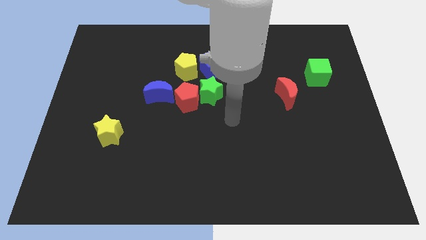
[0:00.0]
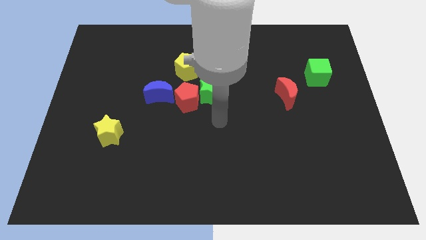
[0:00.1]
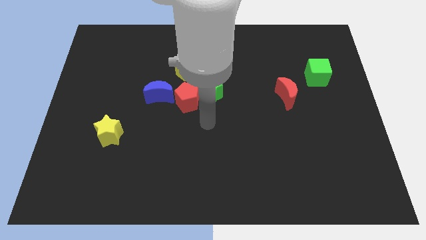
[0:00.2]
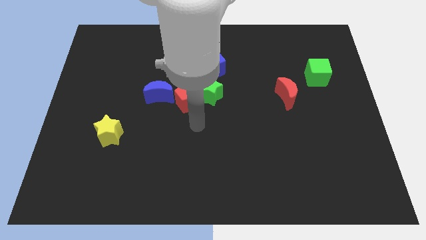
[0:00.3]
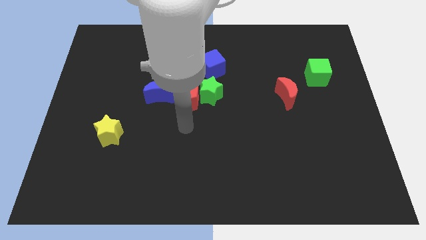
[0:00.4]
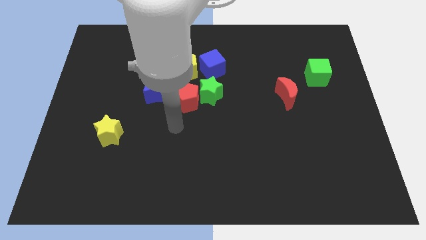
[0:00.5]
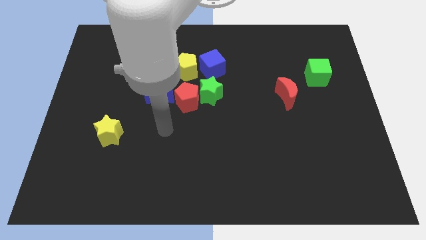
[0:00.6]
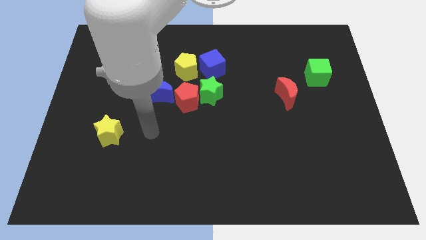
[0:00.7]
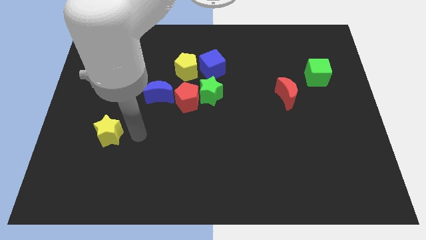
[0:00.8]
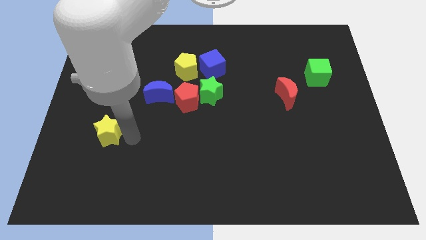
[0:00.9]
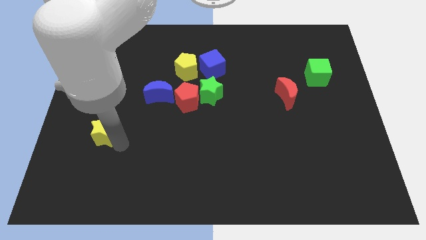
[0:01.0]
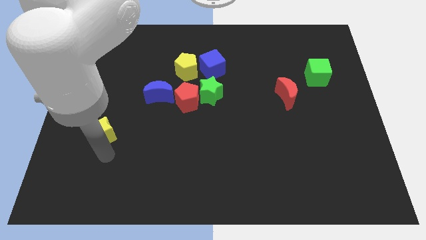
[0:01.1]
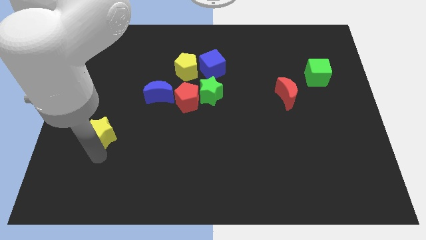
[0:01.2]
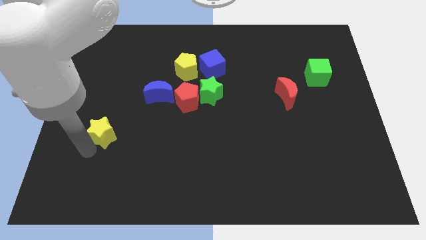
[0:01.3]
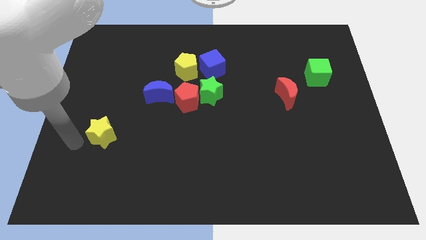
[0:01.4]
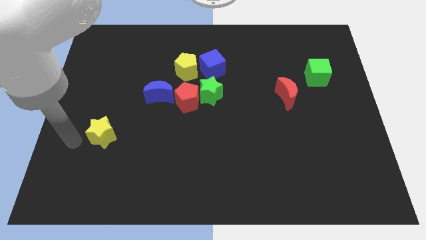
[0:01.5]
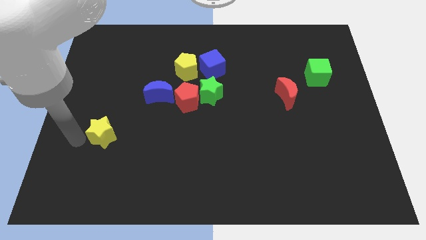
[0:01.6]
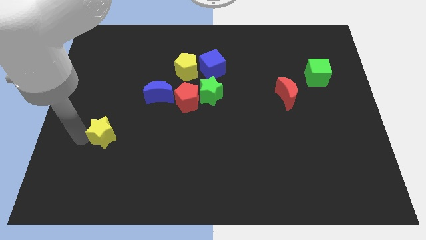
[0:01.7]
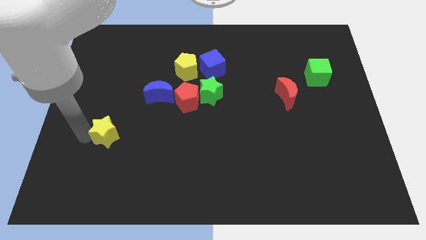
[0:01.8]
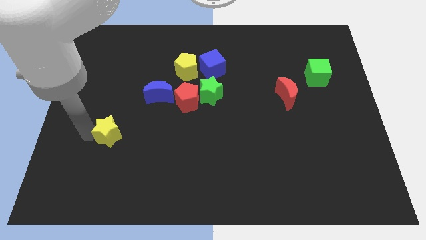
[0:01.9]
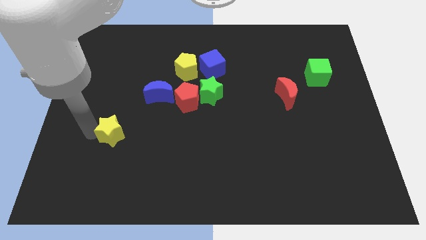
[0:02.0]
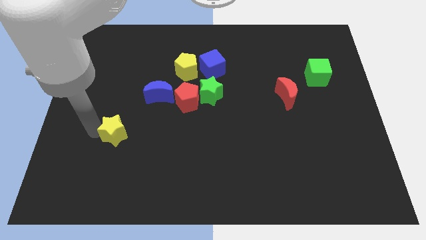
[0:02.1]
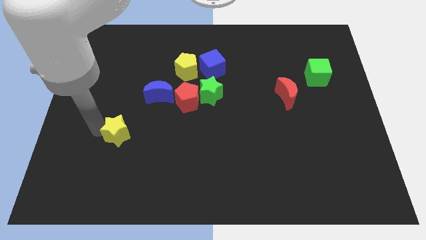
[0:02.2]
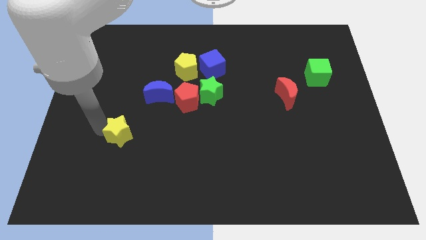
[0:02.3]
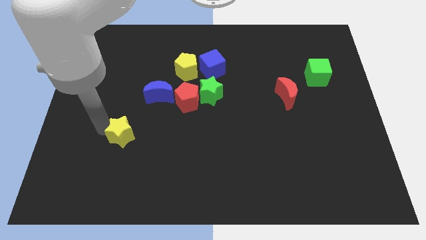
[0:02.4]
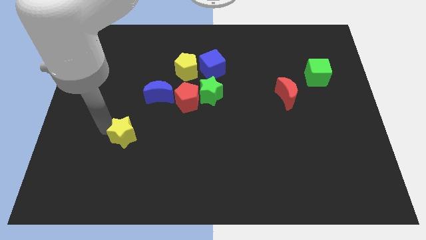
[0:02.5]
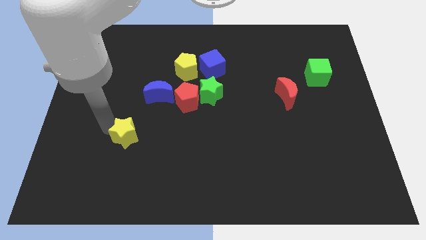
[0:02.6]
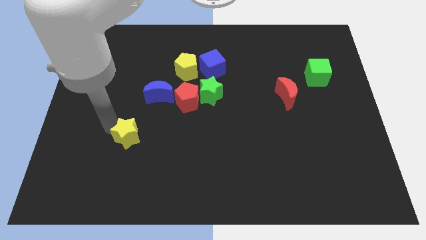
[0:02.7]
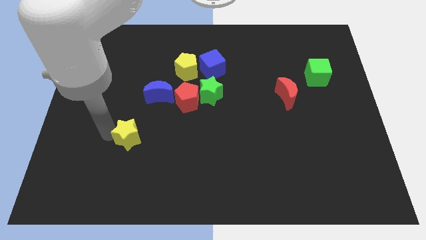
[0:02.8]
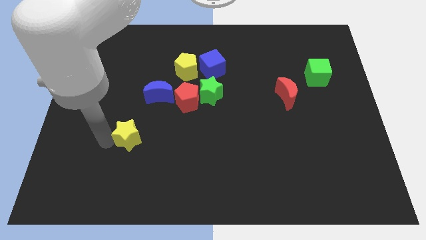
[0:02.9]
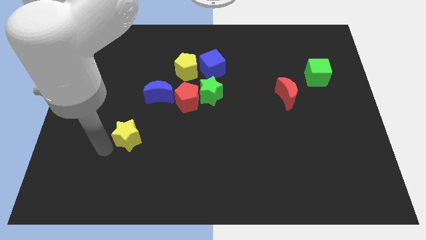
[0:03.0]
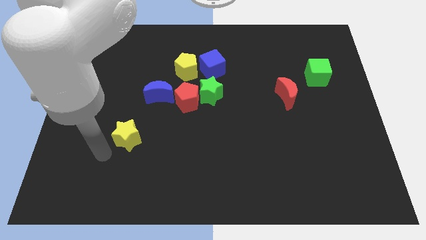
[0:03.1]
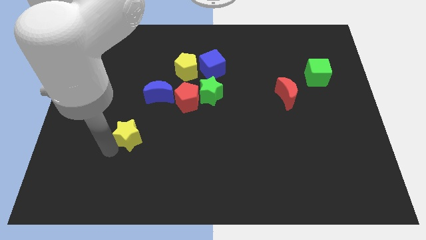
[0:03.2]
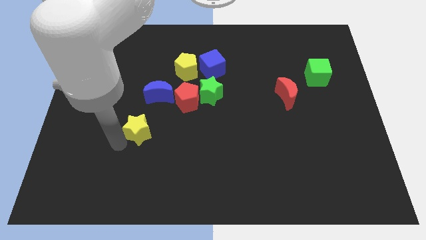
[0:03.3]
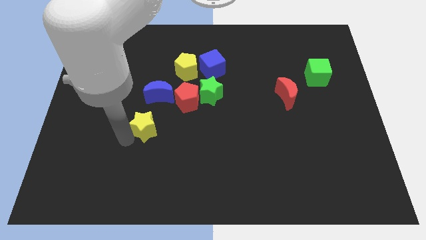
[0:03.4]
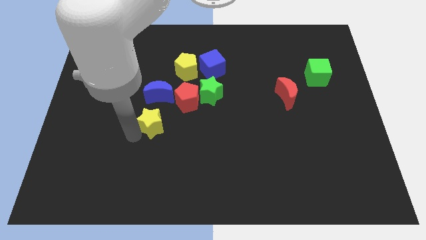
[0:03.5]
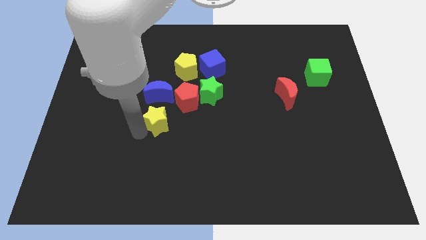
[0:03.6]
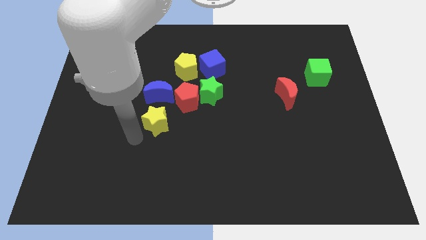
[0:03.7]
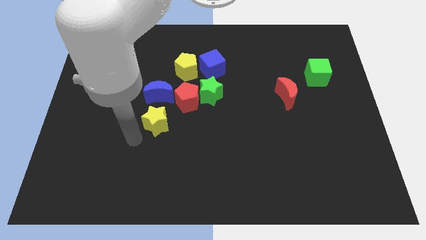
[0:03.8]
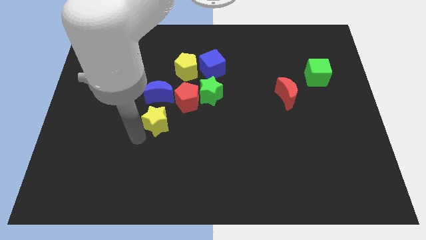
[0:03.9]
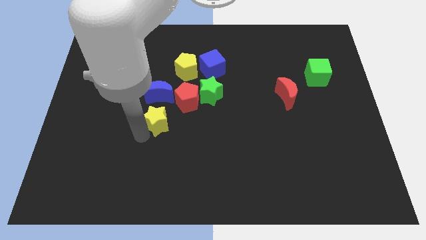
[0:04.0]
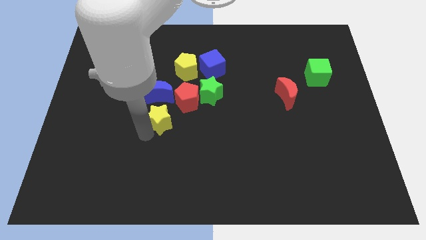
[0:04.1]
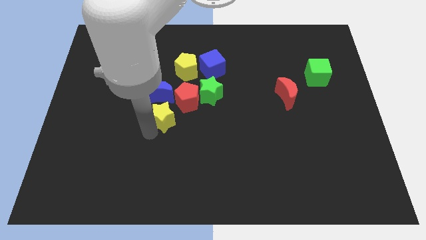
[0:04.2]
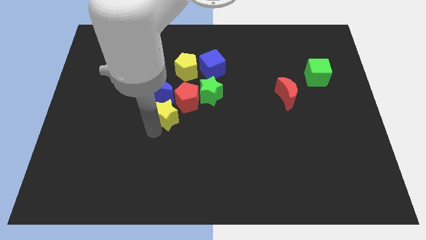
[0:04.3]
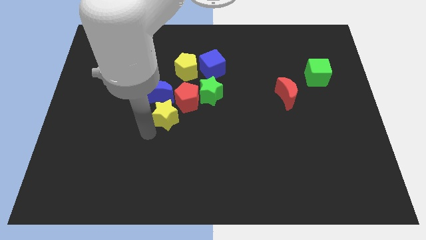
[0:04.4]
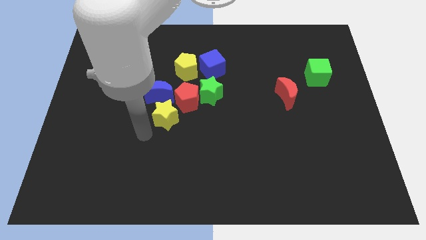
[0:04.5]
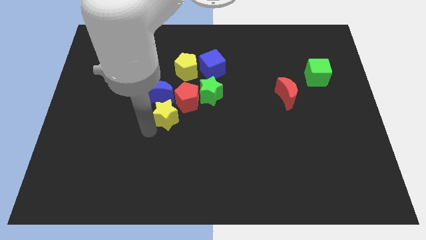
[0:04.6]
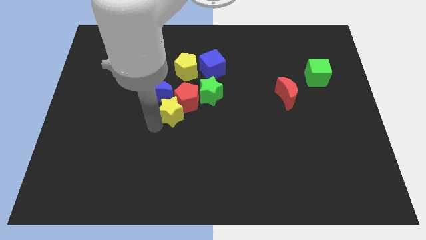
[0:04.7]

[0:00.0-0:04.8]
push the yellow star towards the red pentagon

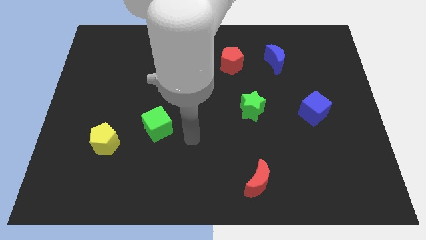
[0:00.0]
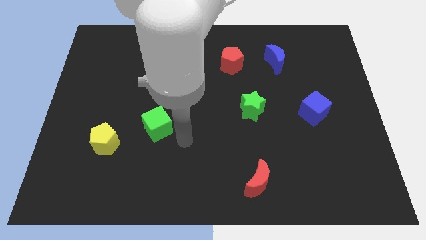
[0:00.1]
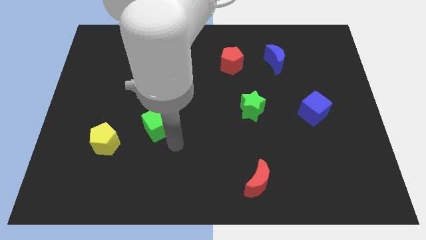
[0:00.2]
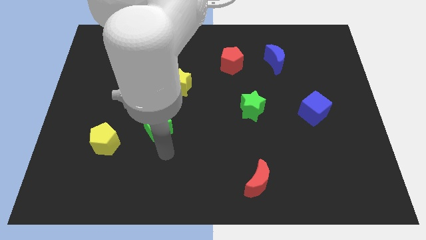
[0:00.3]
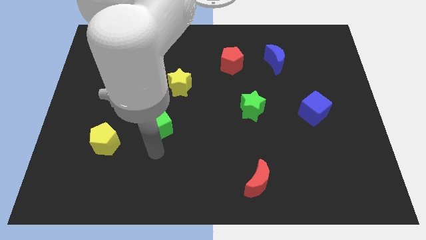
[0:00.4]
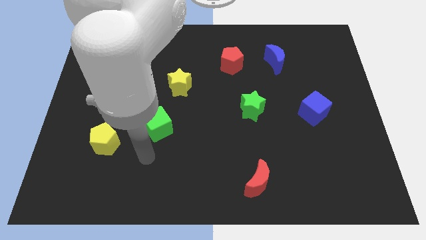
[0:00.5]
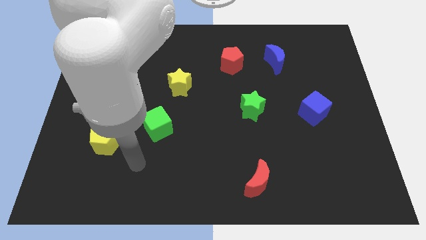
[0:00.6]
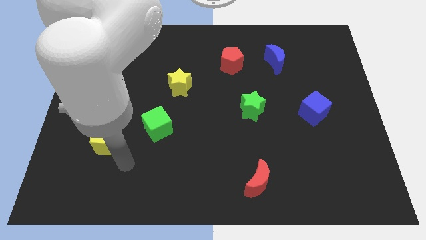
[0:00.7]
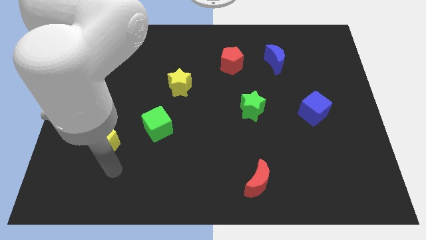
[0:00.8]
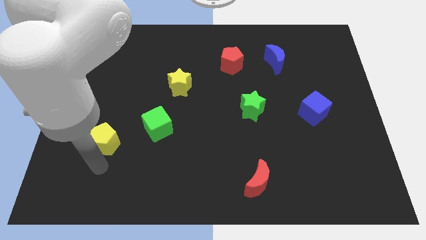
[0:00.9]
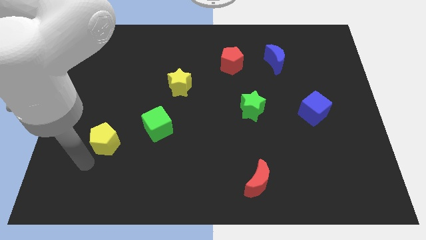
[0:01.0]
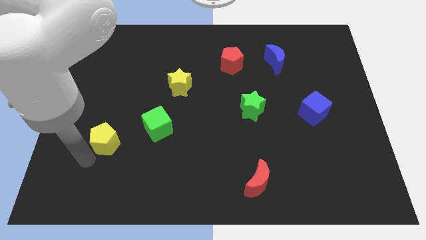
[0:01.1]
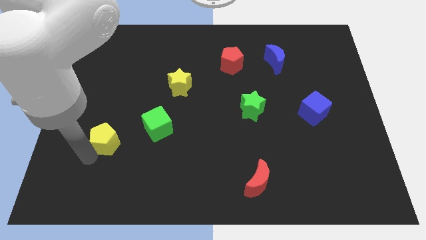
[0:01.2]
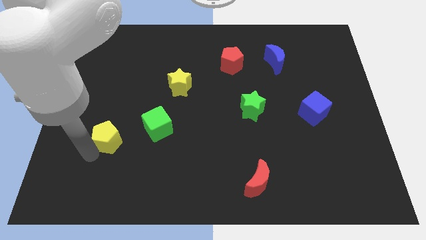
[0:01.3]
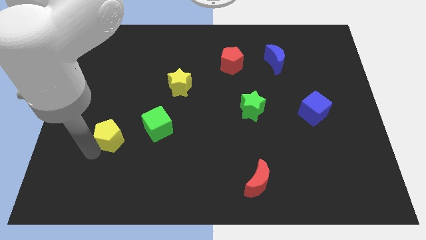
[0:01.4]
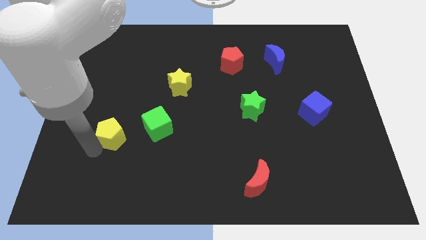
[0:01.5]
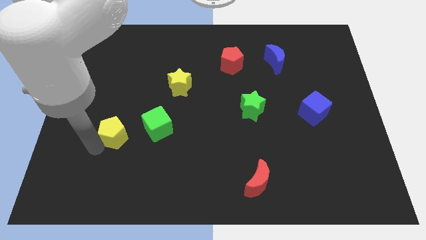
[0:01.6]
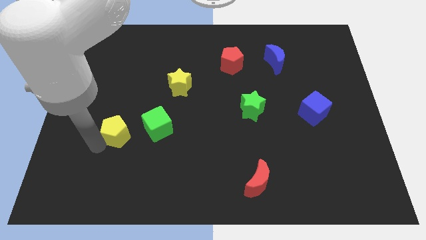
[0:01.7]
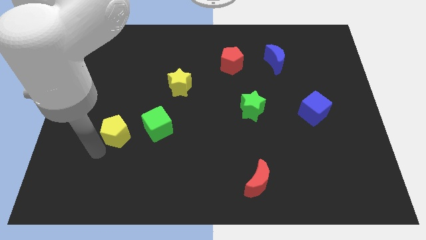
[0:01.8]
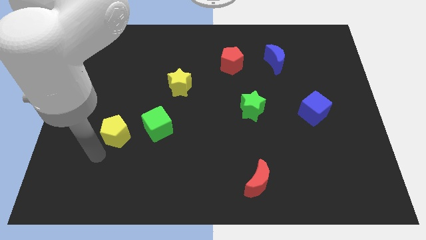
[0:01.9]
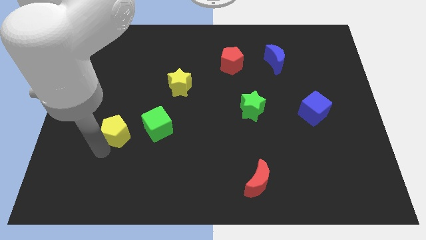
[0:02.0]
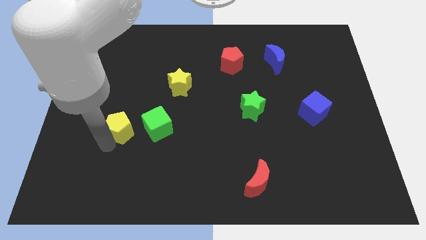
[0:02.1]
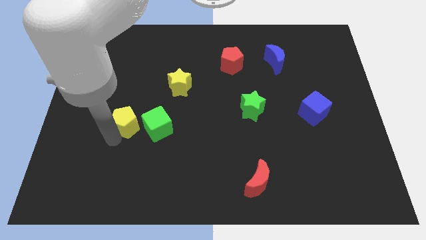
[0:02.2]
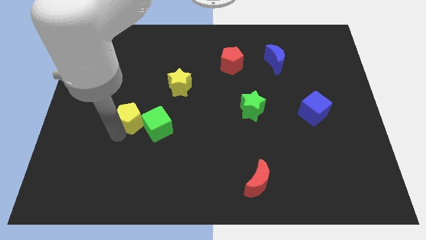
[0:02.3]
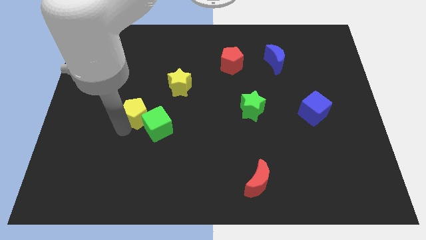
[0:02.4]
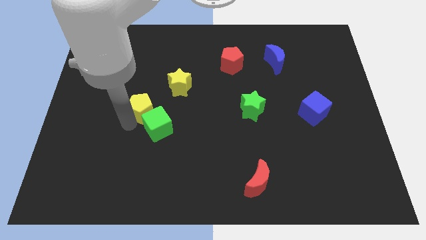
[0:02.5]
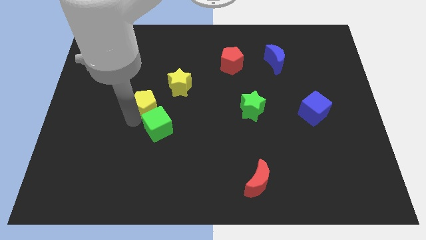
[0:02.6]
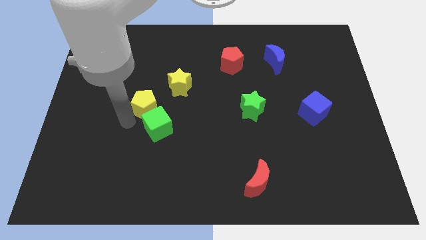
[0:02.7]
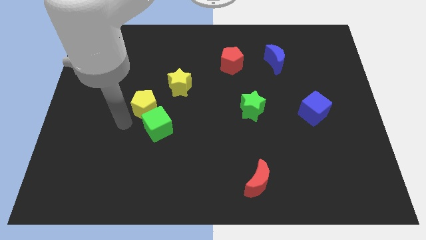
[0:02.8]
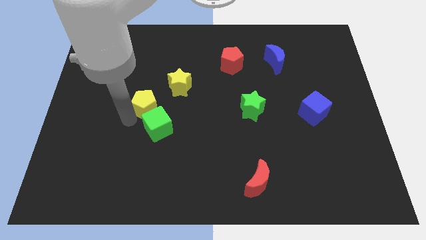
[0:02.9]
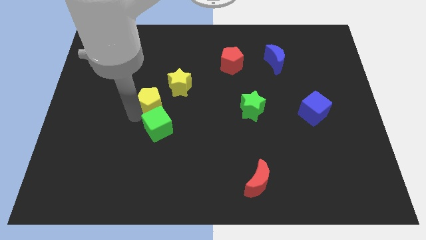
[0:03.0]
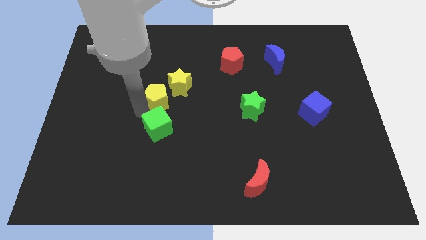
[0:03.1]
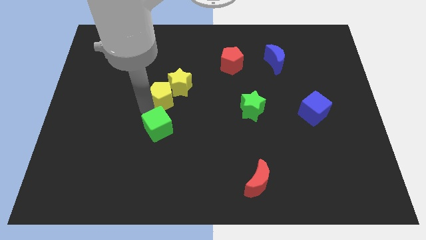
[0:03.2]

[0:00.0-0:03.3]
put the yellow pentagon next to the yellow star
